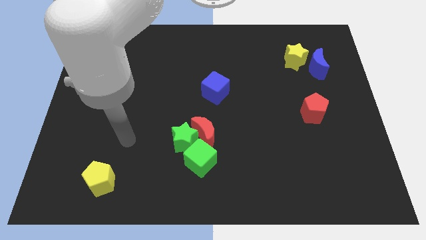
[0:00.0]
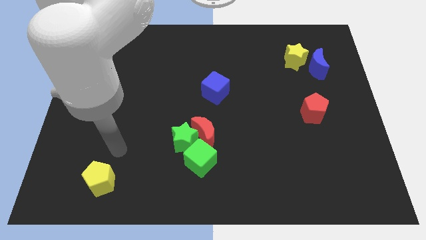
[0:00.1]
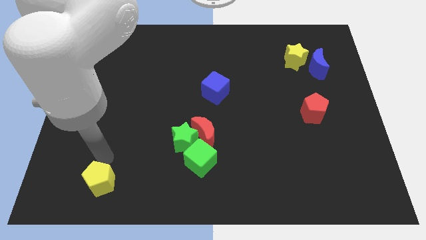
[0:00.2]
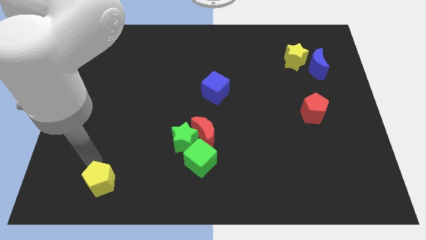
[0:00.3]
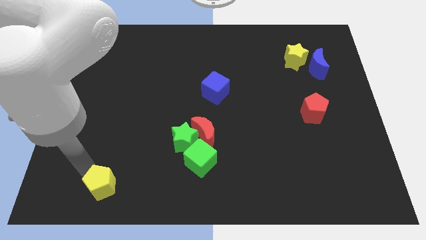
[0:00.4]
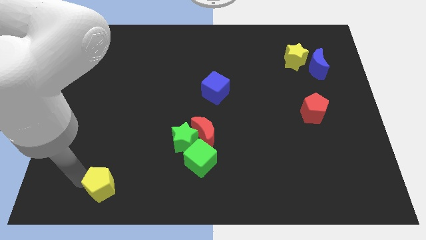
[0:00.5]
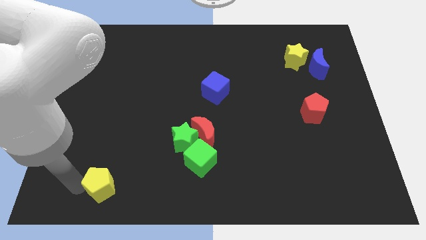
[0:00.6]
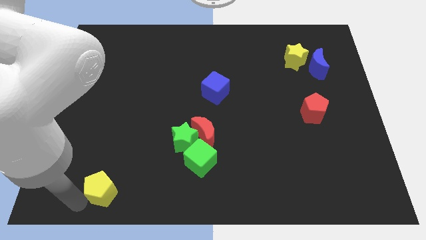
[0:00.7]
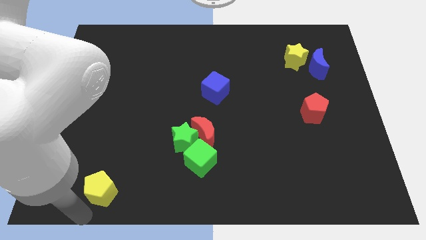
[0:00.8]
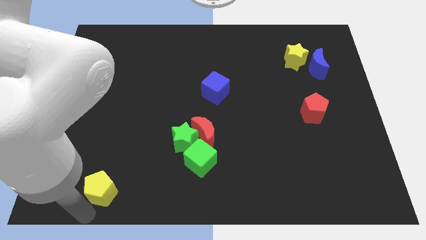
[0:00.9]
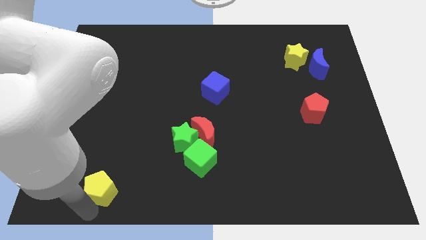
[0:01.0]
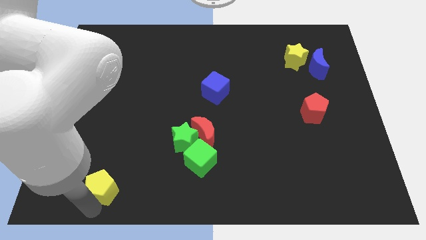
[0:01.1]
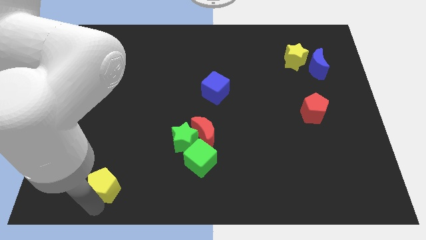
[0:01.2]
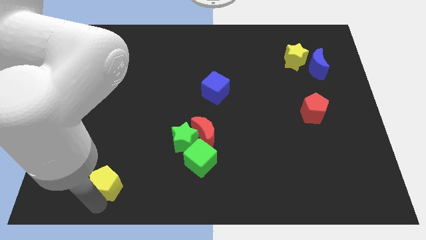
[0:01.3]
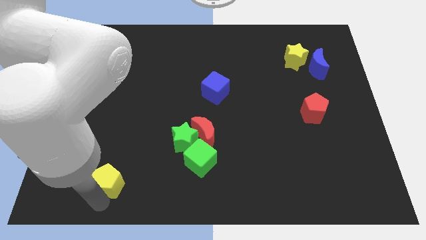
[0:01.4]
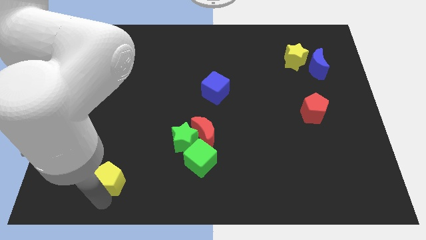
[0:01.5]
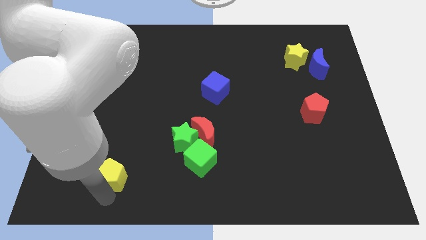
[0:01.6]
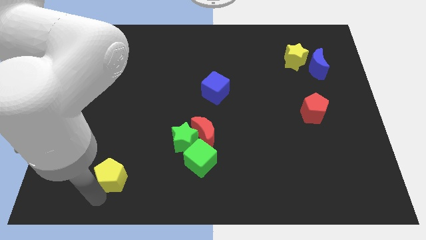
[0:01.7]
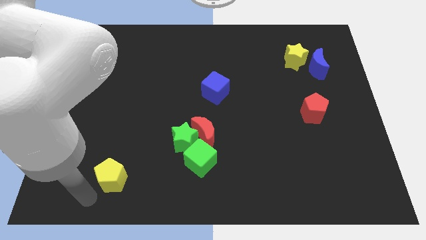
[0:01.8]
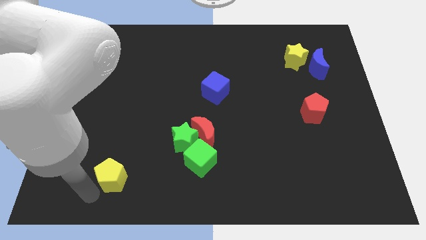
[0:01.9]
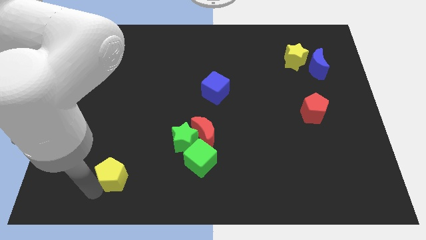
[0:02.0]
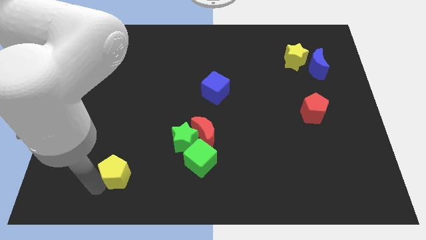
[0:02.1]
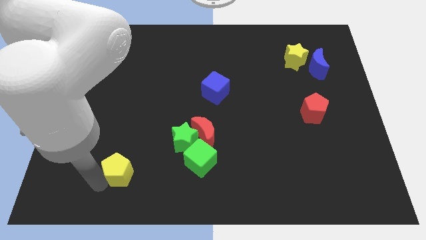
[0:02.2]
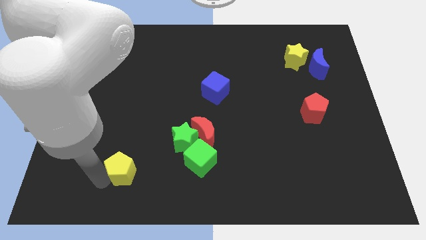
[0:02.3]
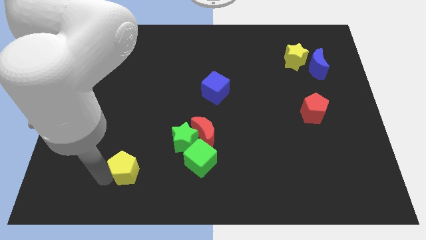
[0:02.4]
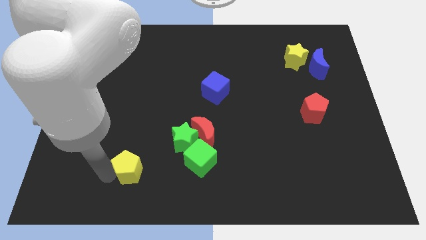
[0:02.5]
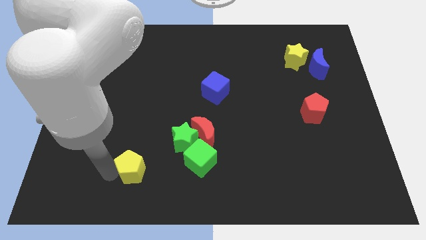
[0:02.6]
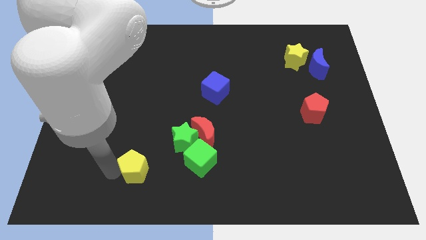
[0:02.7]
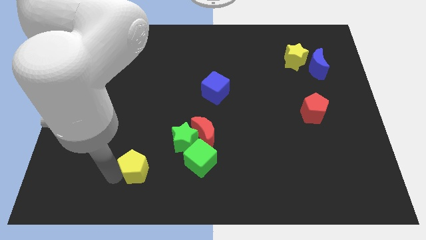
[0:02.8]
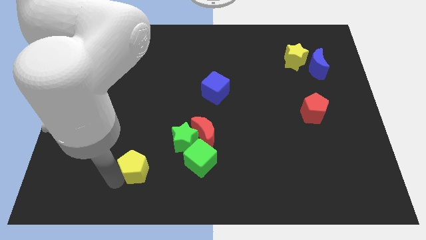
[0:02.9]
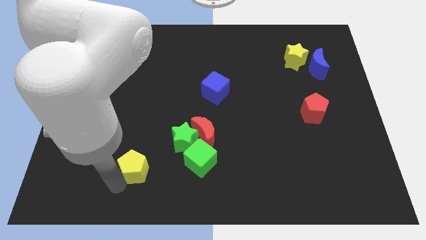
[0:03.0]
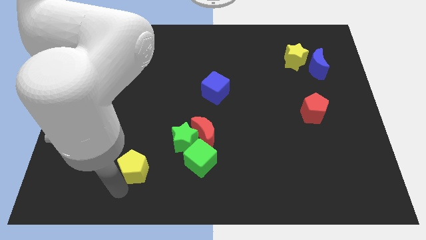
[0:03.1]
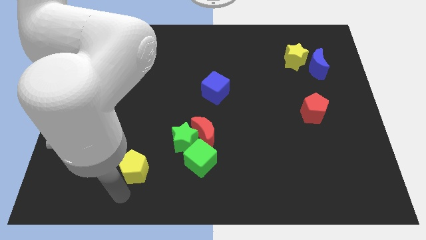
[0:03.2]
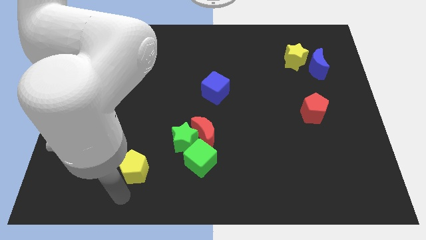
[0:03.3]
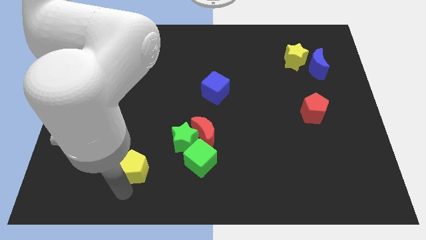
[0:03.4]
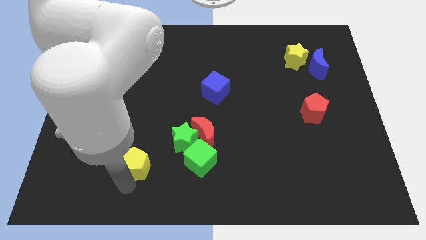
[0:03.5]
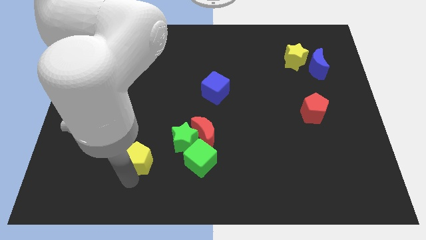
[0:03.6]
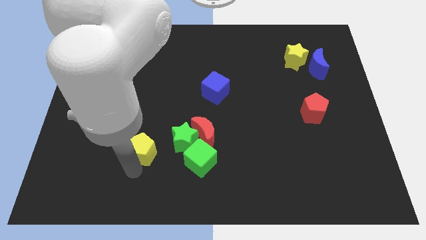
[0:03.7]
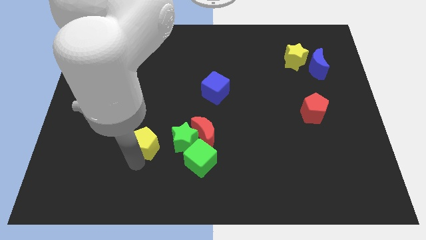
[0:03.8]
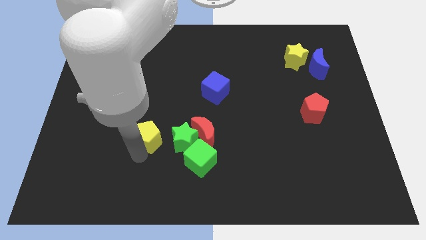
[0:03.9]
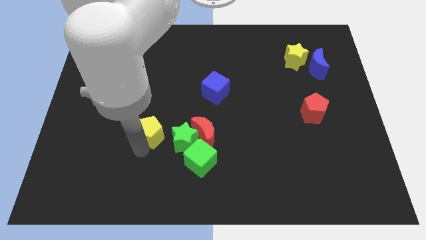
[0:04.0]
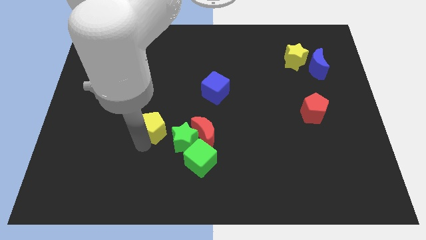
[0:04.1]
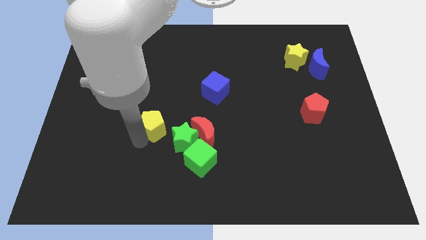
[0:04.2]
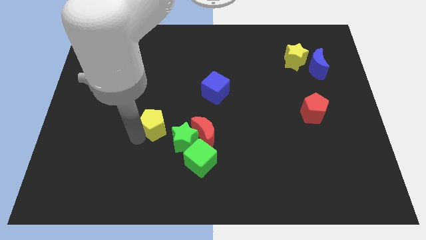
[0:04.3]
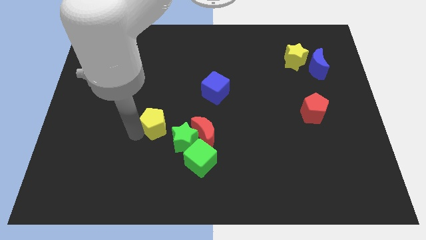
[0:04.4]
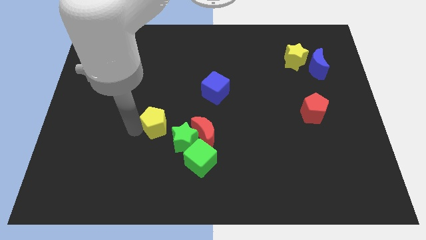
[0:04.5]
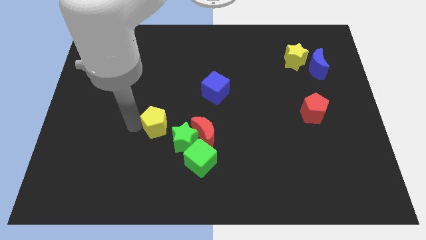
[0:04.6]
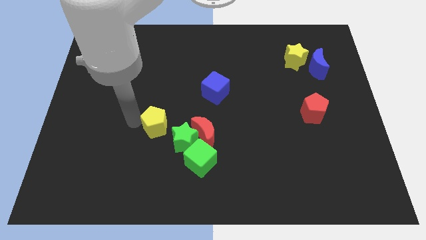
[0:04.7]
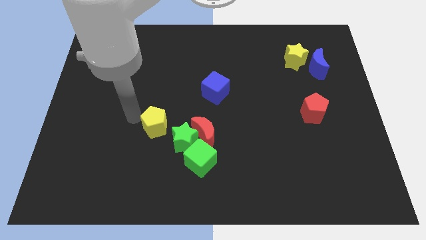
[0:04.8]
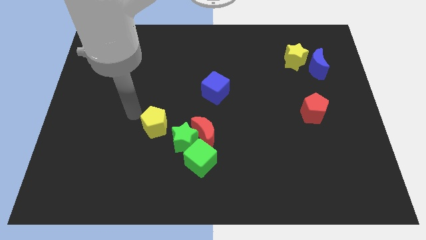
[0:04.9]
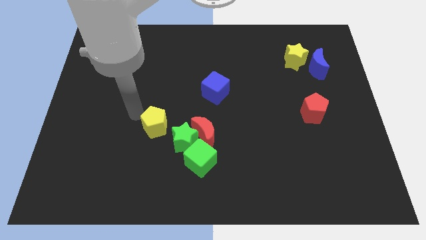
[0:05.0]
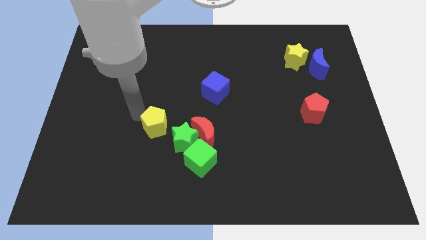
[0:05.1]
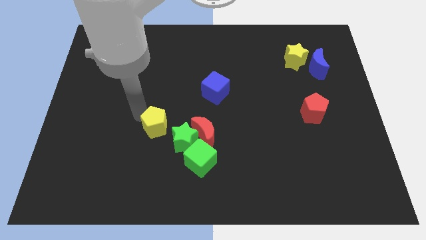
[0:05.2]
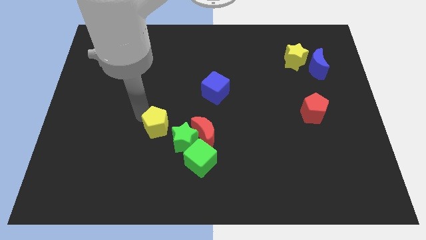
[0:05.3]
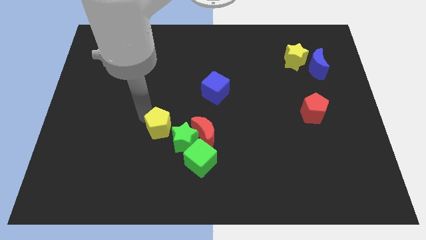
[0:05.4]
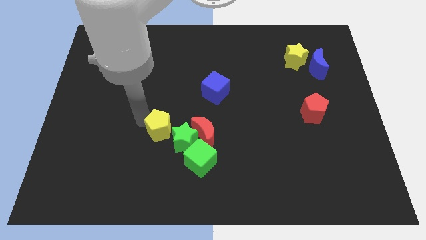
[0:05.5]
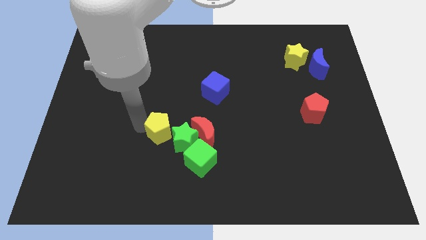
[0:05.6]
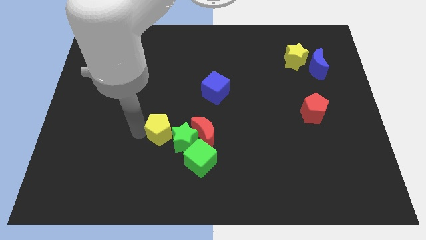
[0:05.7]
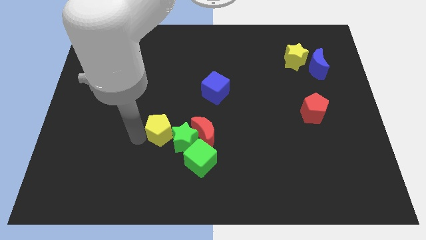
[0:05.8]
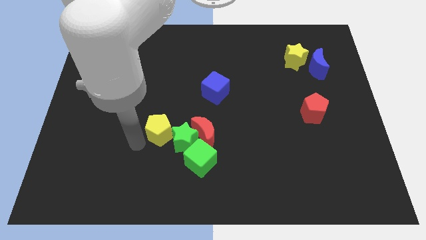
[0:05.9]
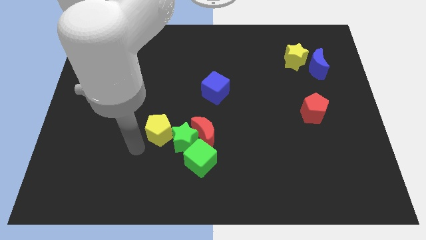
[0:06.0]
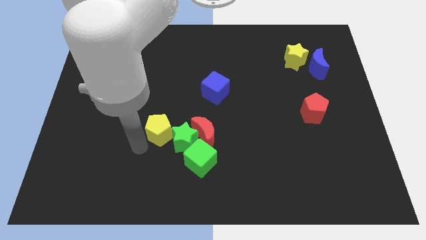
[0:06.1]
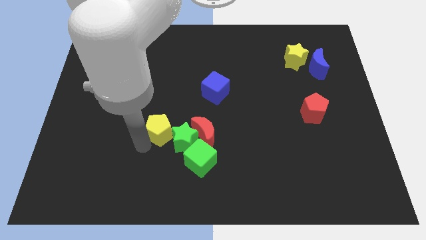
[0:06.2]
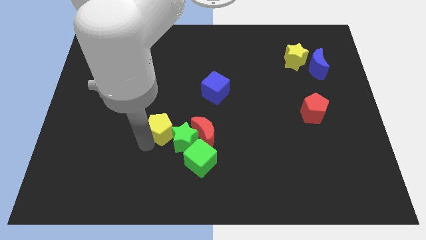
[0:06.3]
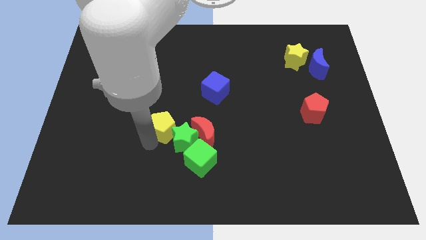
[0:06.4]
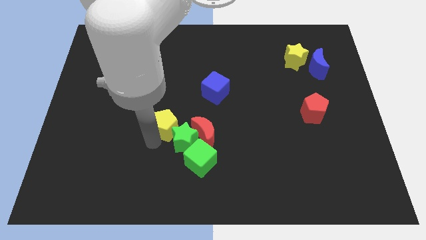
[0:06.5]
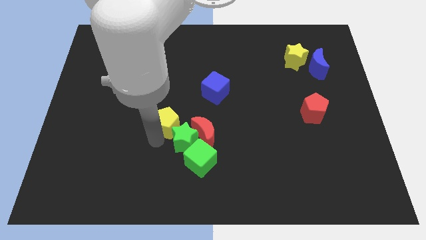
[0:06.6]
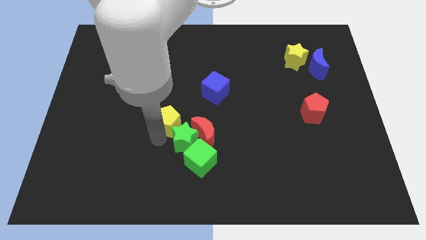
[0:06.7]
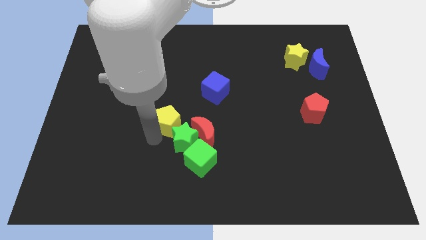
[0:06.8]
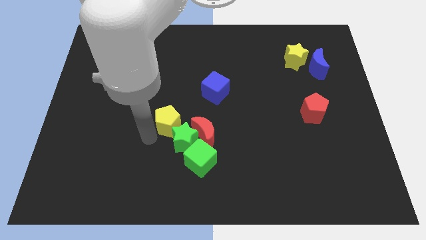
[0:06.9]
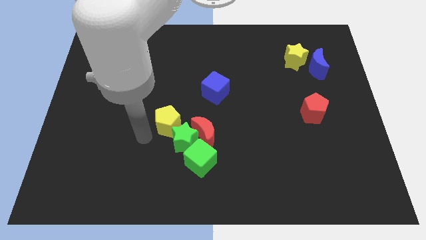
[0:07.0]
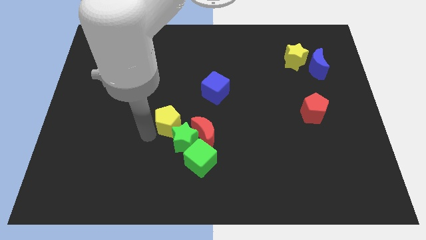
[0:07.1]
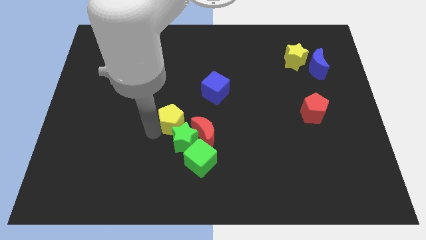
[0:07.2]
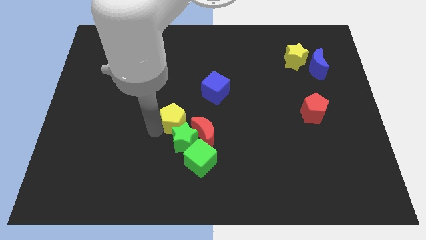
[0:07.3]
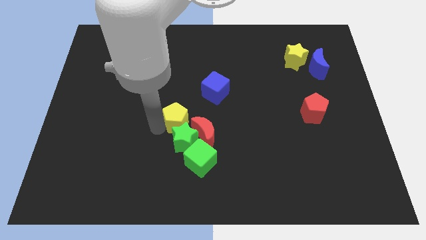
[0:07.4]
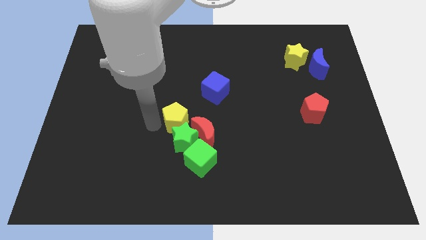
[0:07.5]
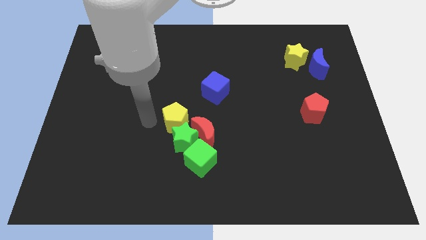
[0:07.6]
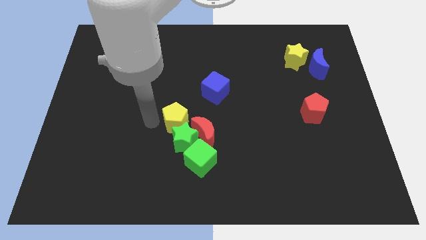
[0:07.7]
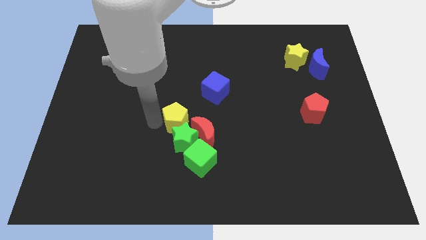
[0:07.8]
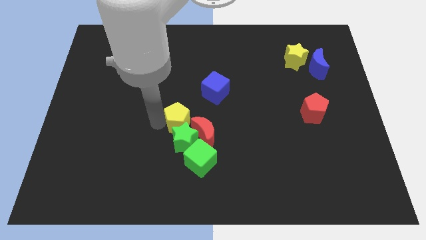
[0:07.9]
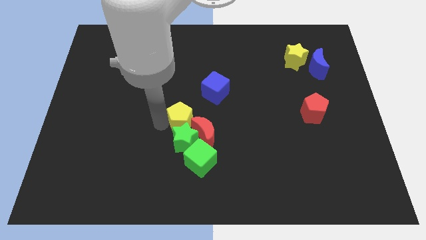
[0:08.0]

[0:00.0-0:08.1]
slide the yellow pentagon to the top side of the green cube
